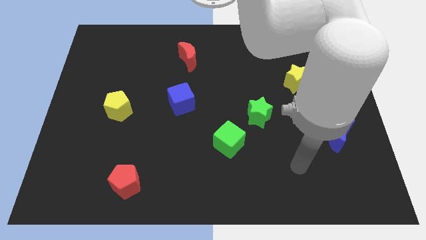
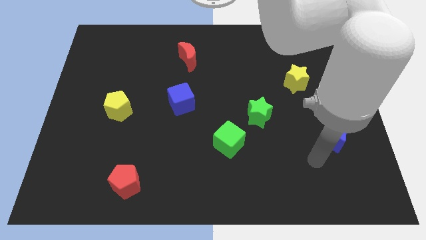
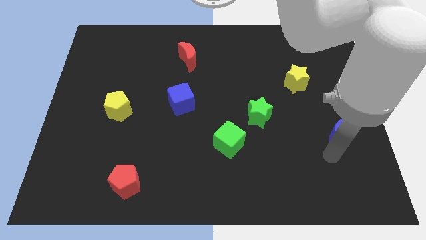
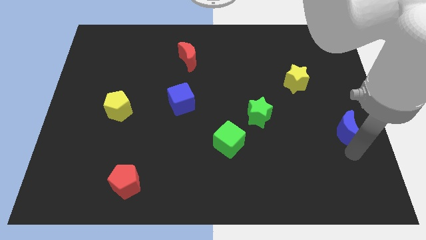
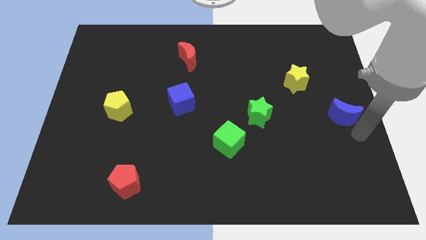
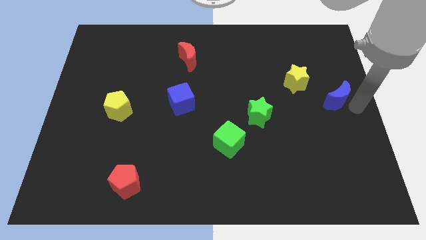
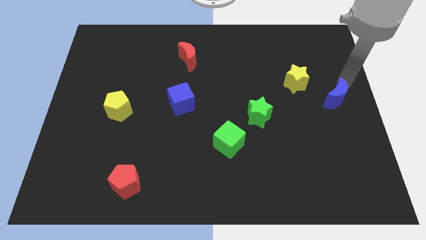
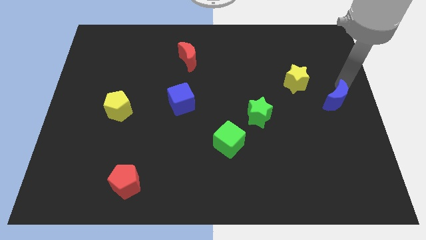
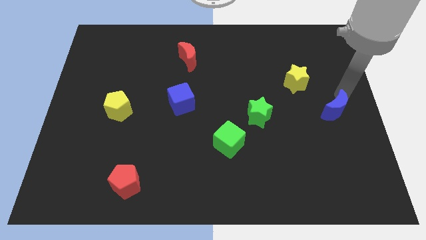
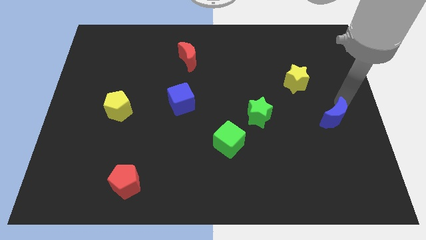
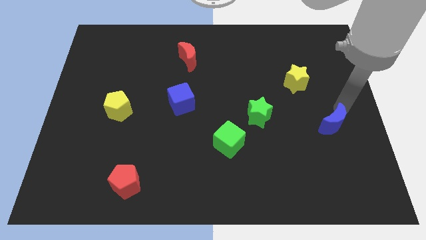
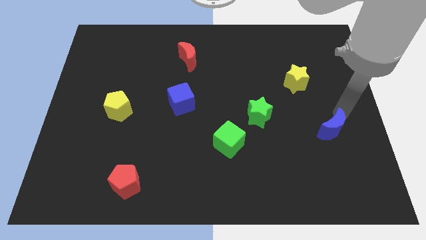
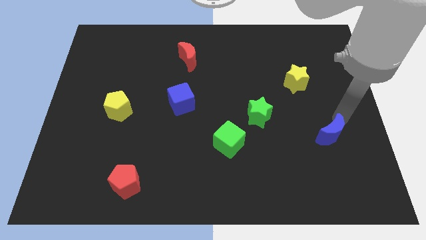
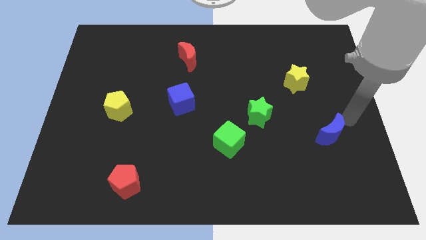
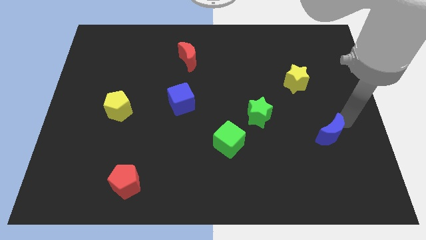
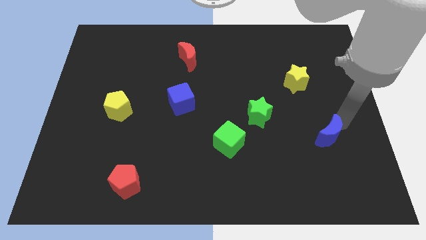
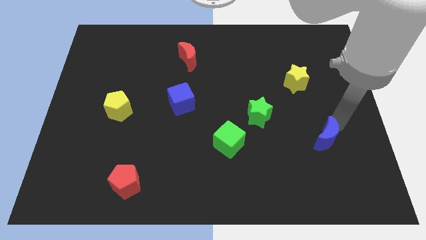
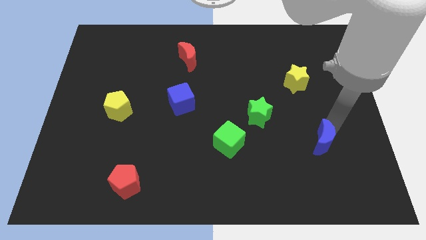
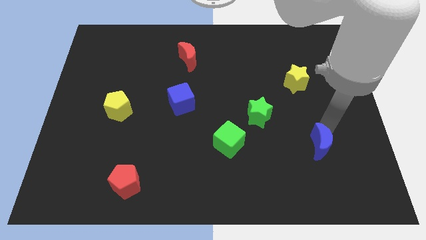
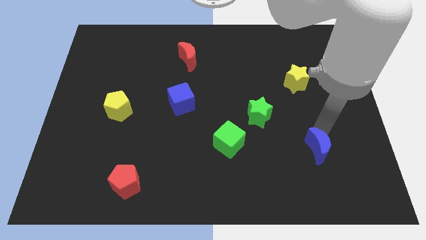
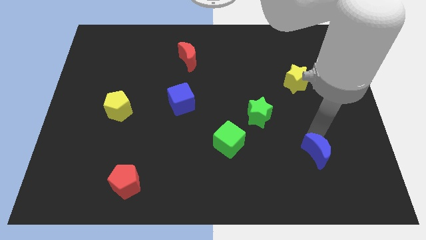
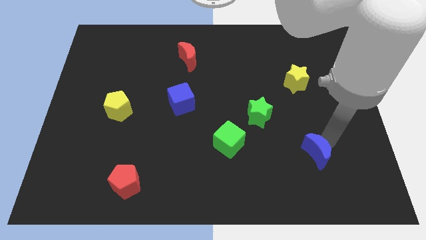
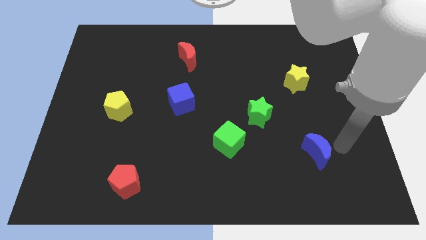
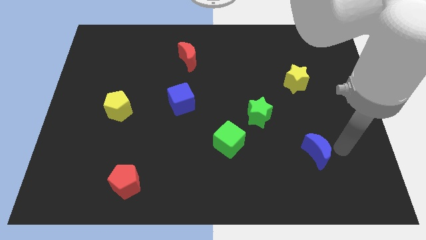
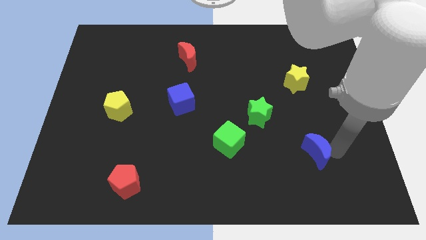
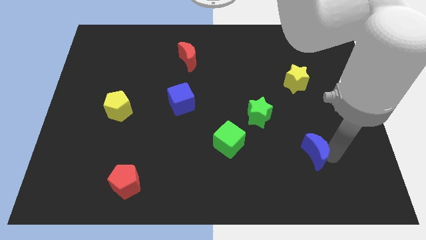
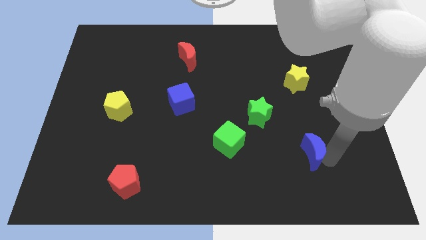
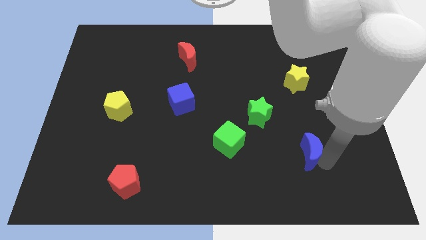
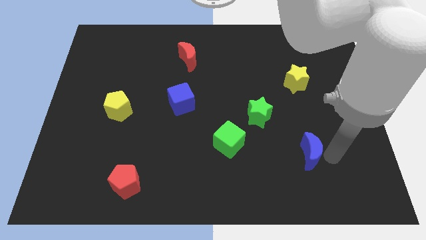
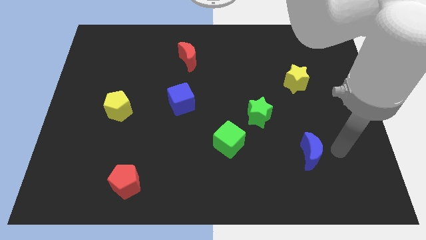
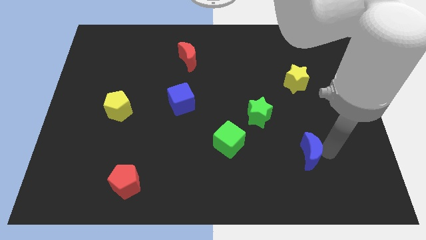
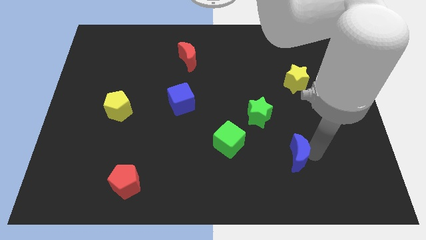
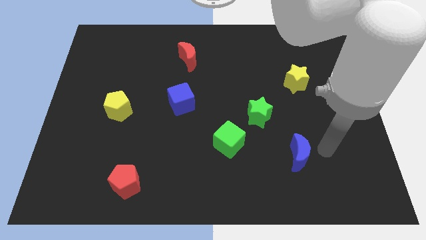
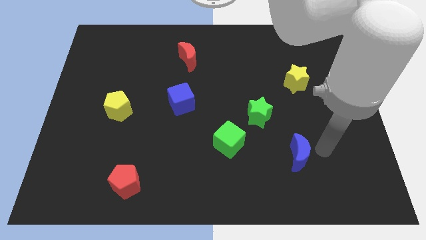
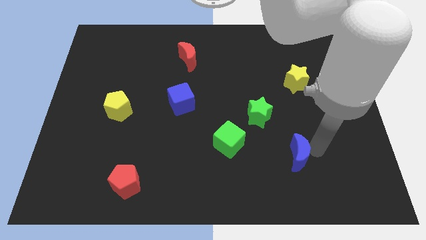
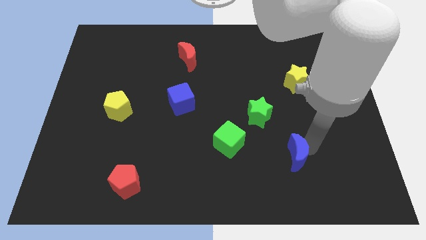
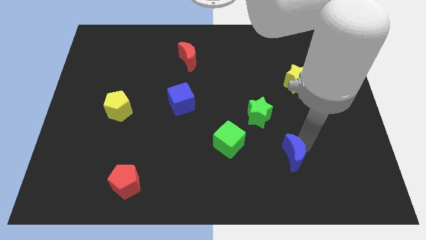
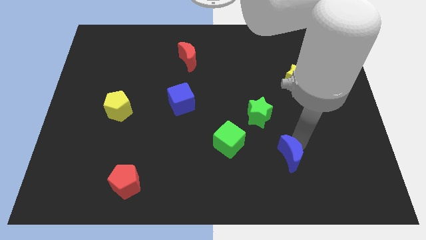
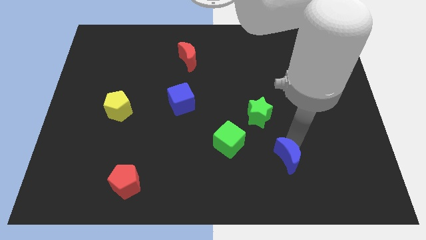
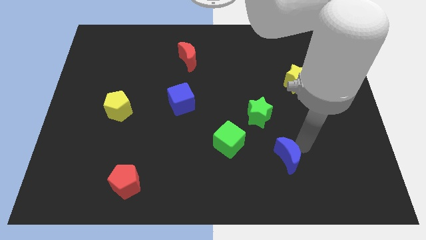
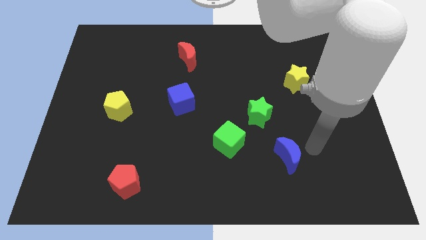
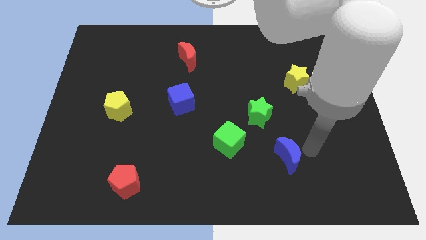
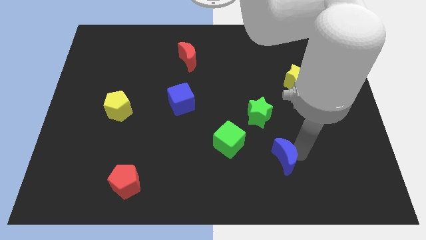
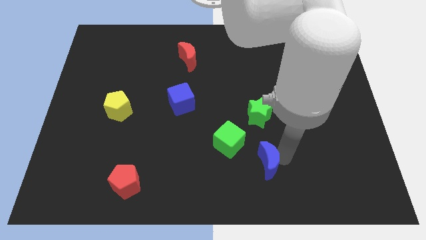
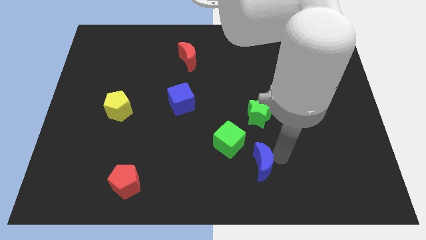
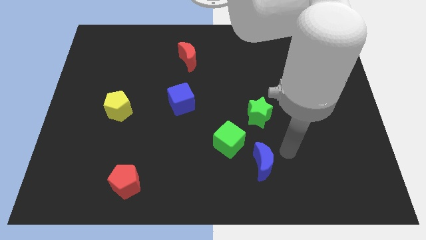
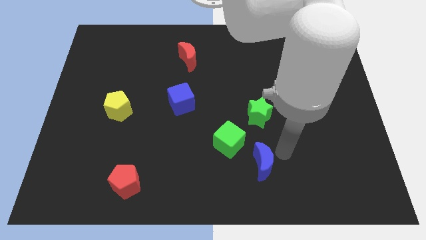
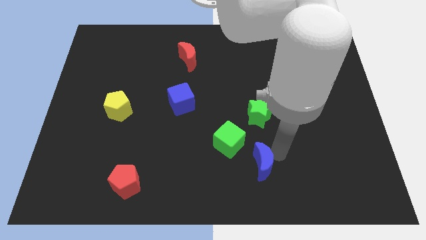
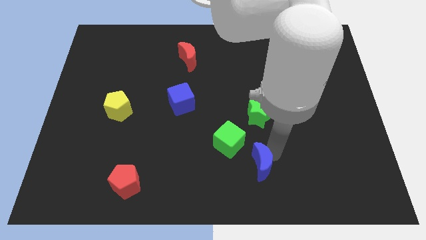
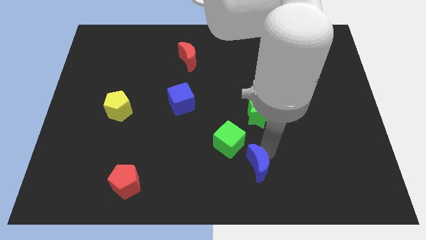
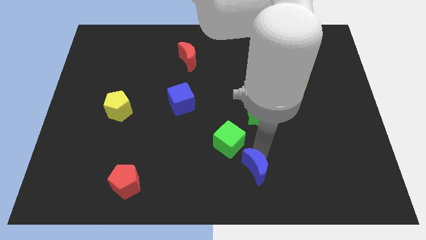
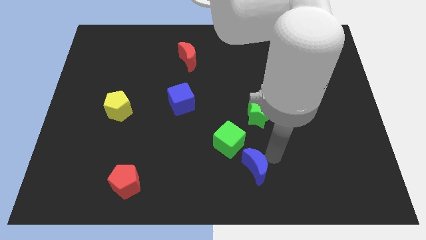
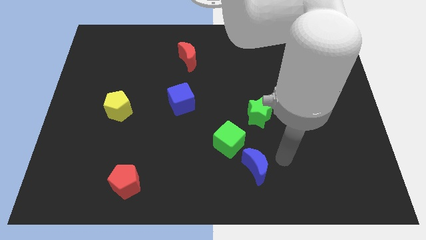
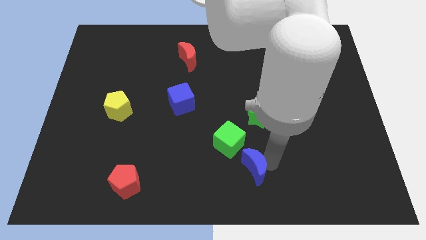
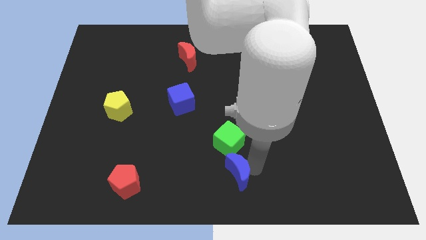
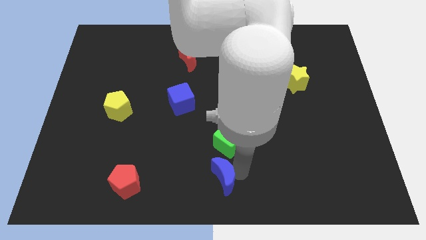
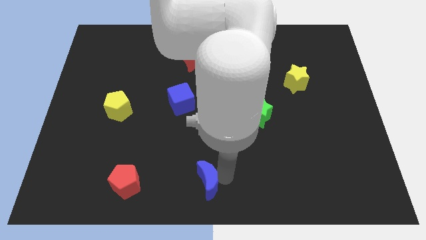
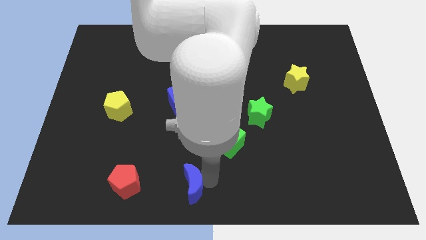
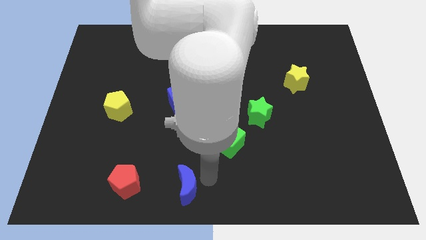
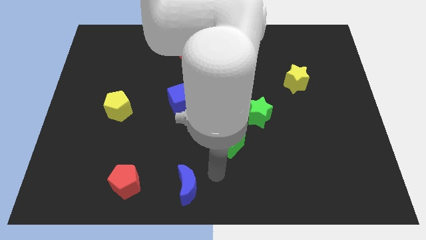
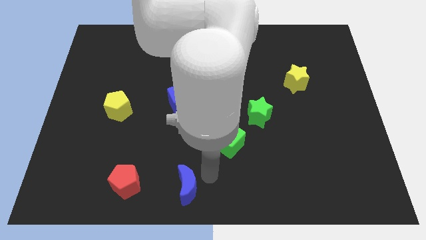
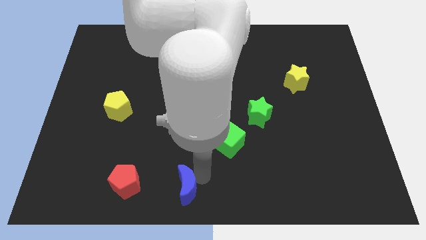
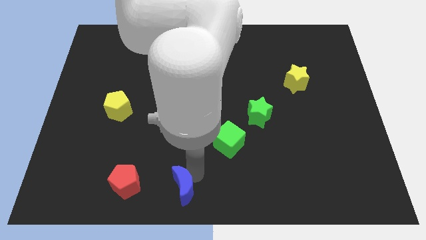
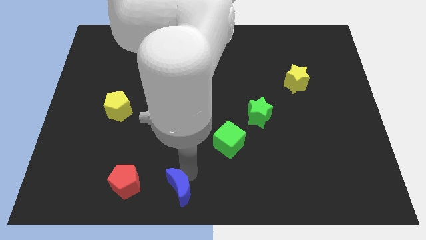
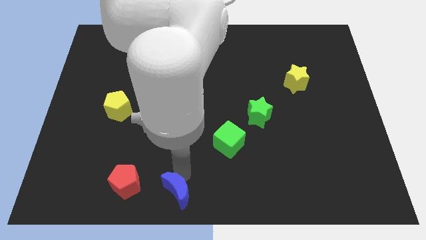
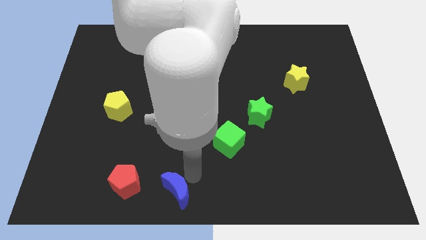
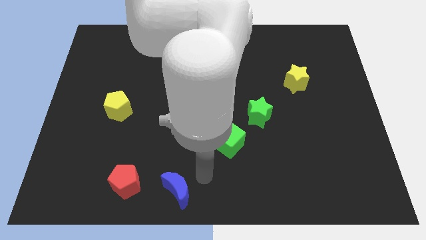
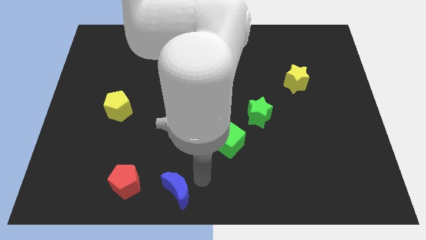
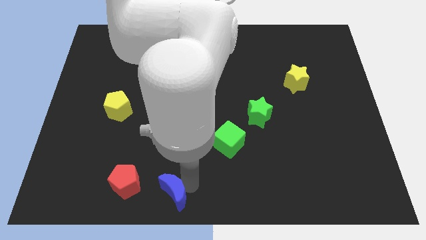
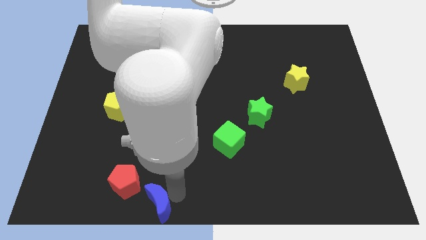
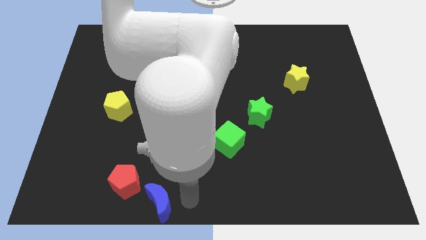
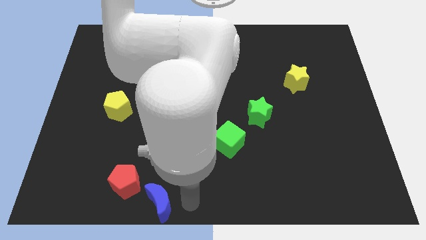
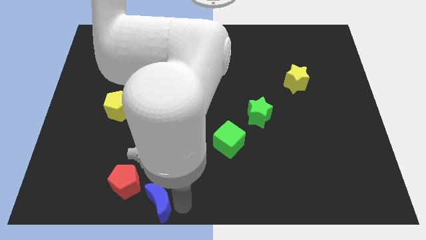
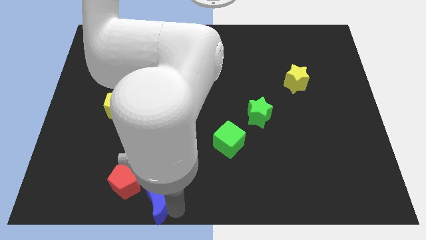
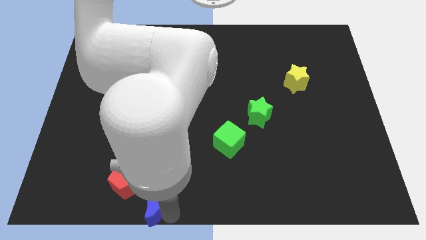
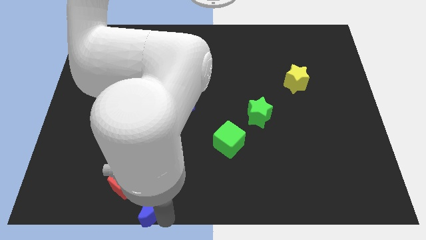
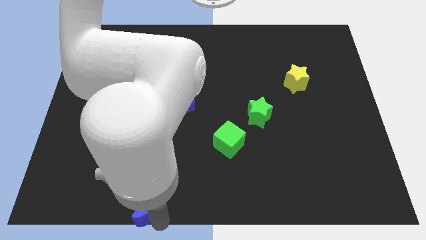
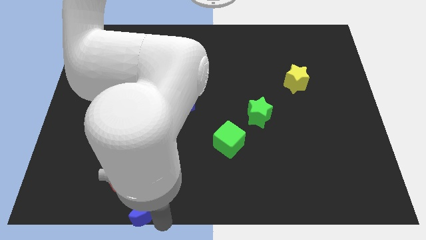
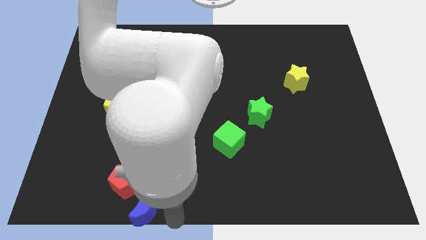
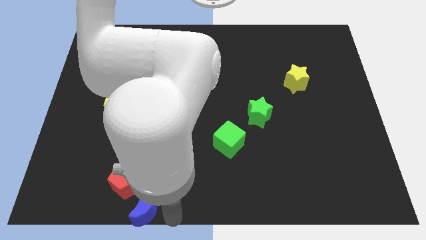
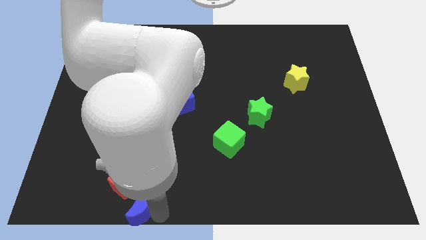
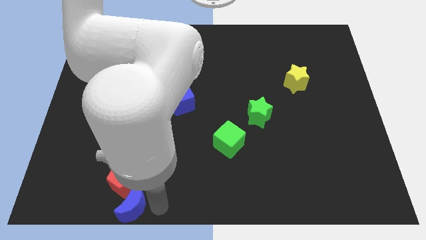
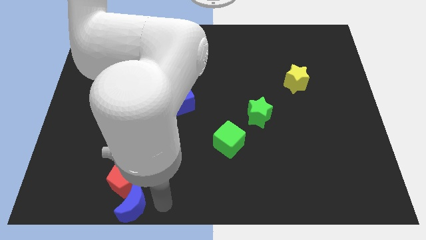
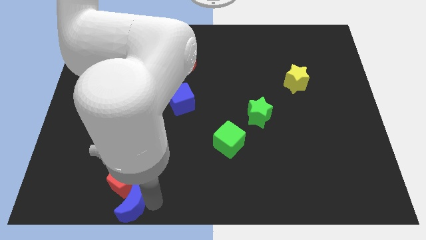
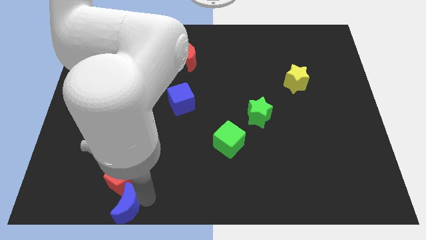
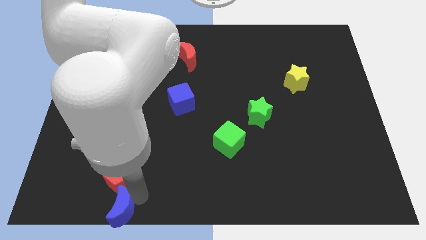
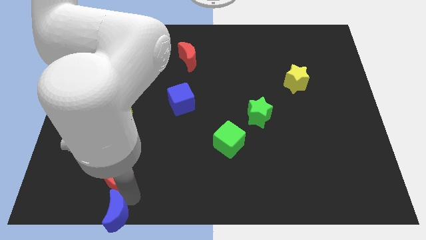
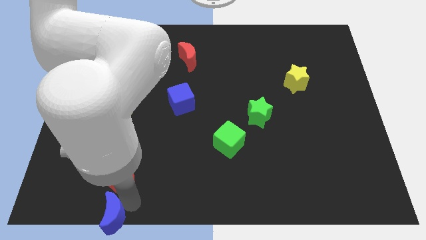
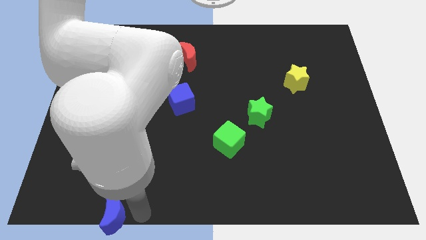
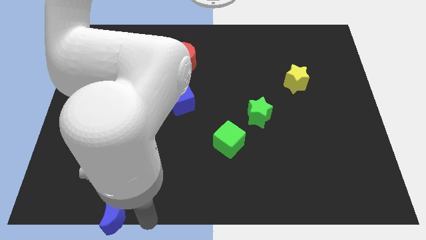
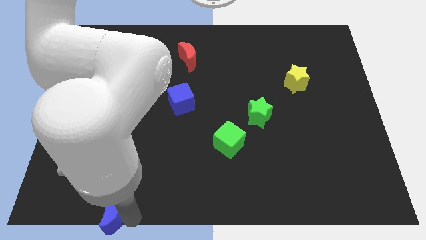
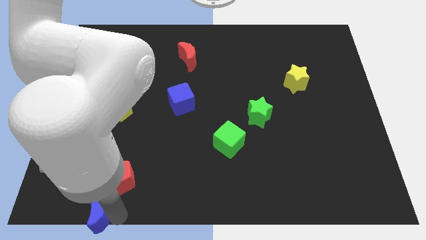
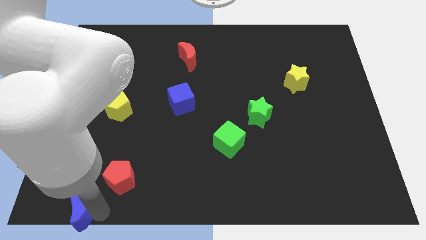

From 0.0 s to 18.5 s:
put the blue moon to the bottom left
